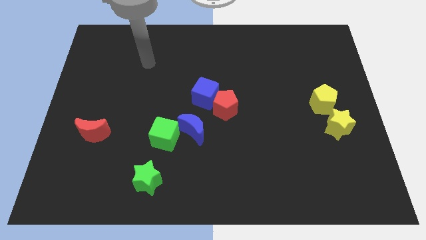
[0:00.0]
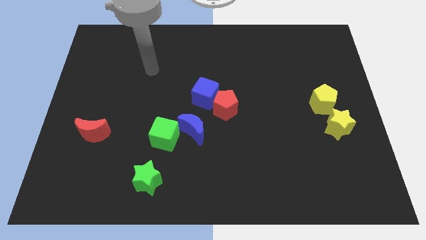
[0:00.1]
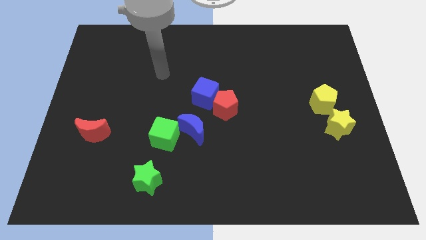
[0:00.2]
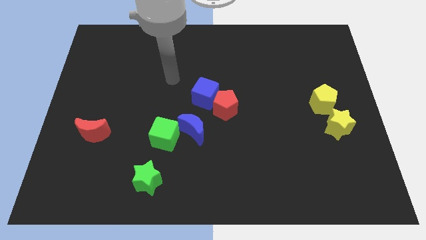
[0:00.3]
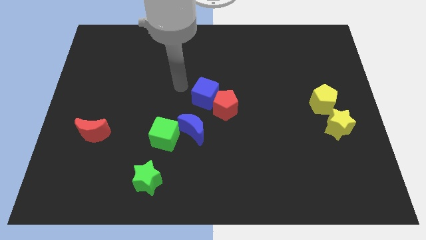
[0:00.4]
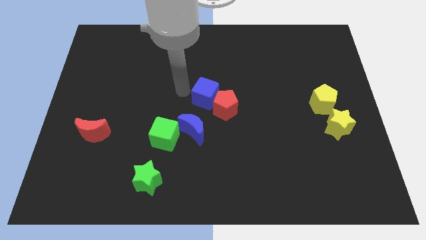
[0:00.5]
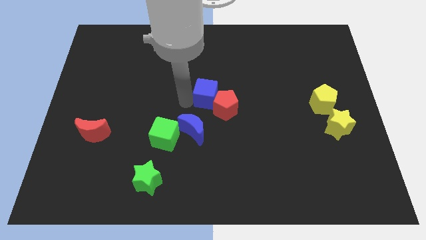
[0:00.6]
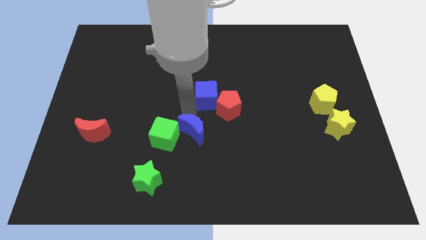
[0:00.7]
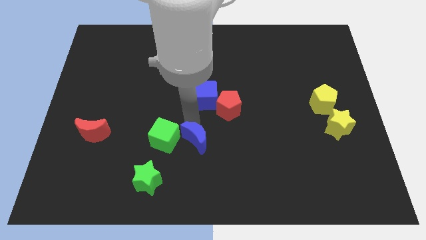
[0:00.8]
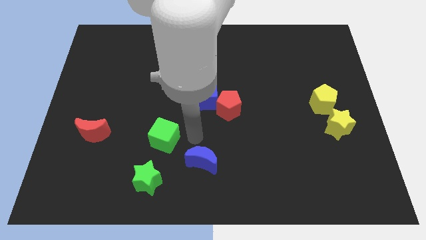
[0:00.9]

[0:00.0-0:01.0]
move the green cube away from the blue moon

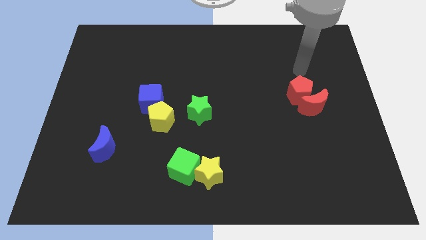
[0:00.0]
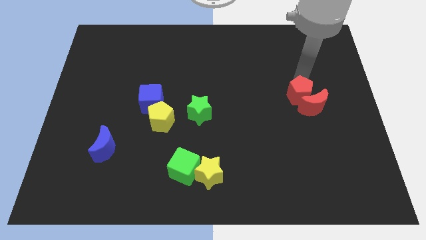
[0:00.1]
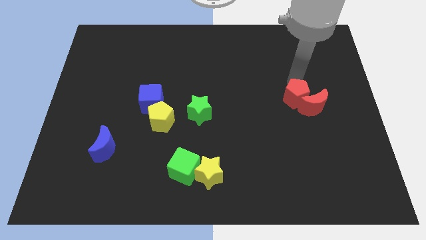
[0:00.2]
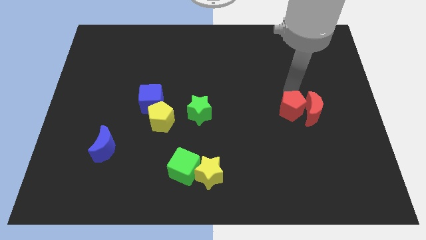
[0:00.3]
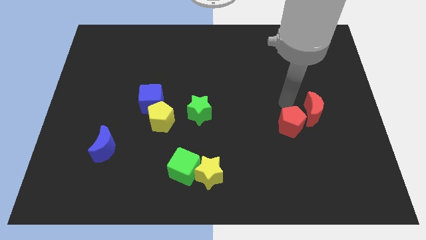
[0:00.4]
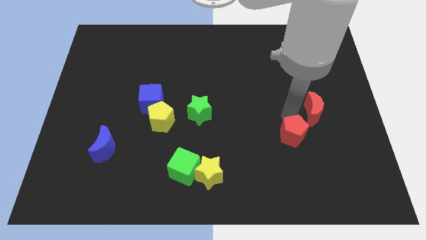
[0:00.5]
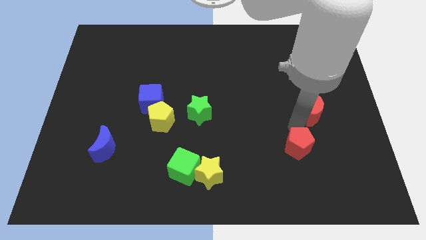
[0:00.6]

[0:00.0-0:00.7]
move the red moon away from the red pentagon

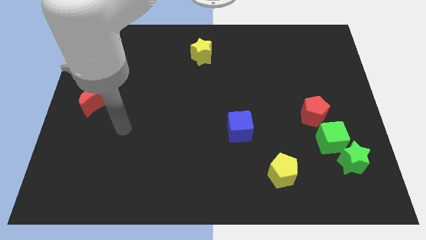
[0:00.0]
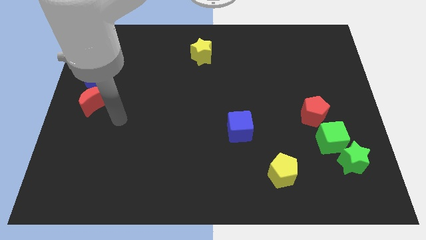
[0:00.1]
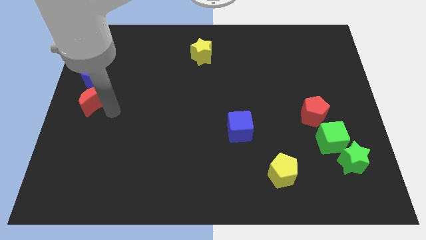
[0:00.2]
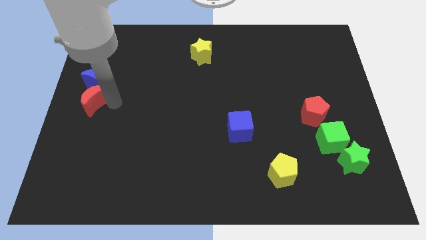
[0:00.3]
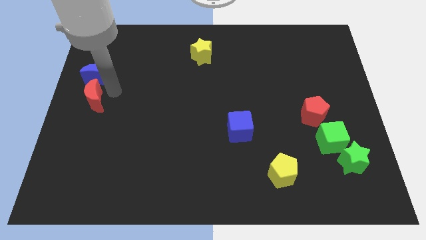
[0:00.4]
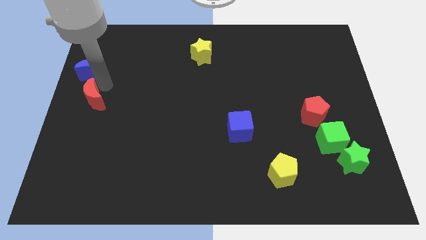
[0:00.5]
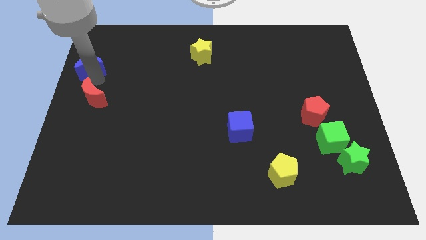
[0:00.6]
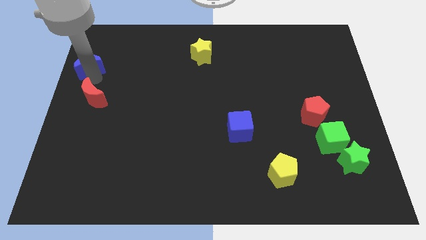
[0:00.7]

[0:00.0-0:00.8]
pull the red moon apart from the blue moon

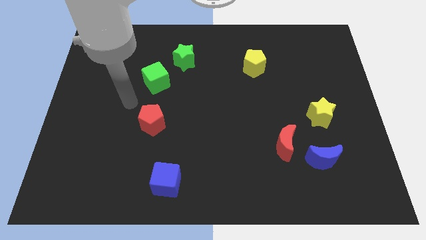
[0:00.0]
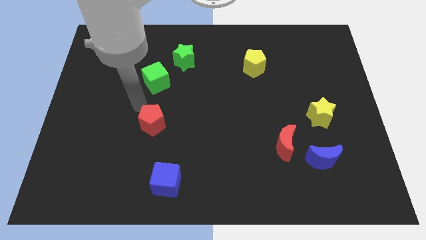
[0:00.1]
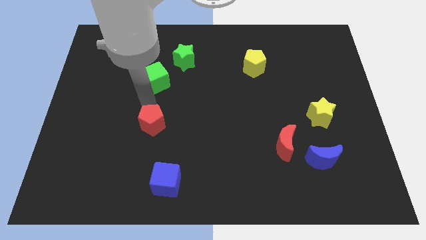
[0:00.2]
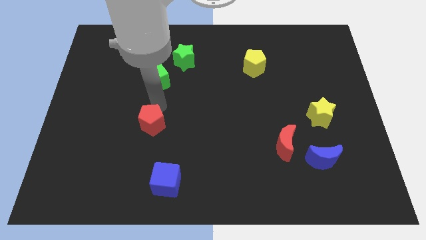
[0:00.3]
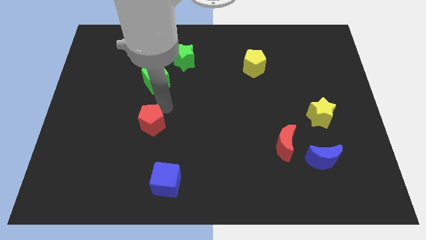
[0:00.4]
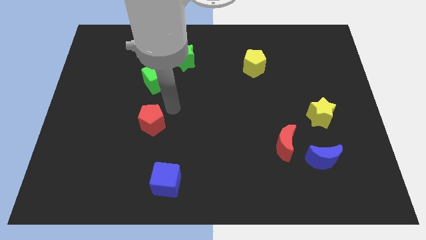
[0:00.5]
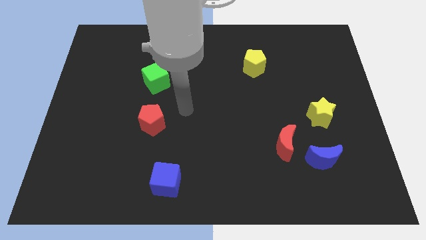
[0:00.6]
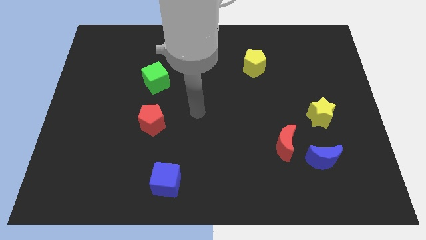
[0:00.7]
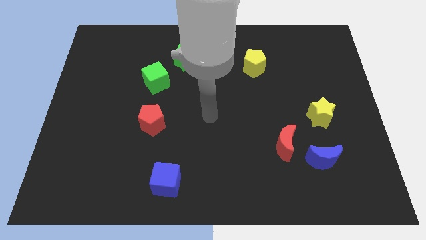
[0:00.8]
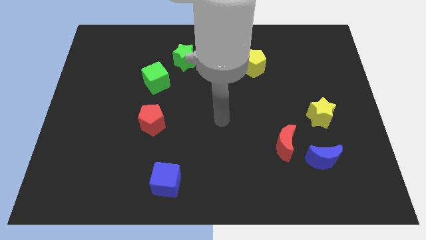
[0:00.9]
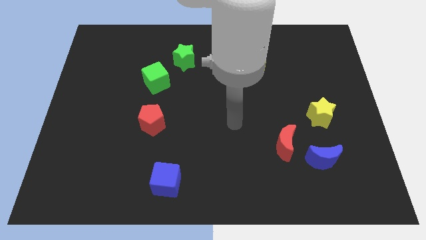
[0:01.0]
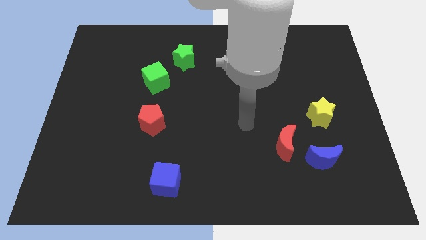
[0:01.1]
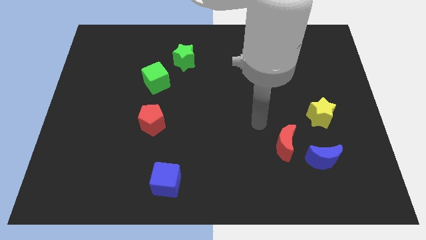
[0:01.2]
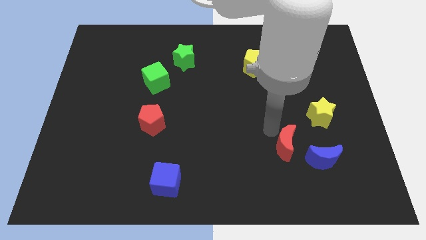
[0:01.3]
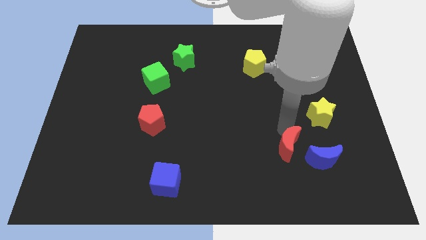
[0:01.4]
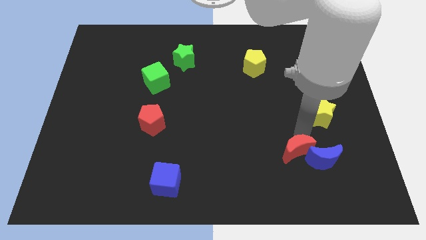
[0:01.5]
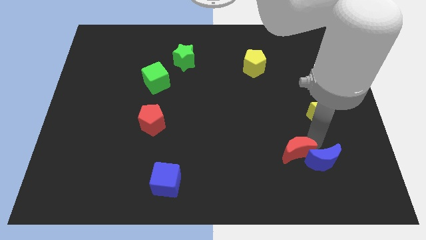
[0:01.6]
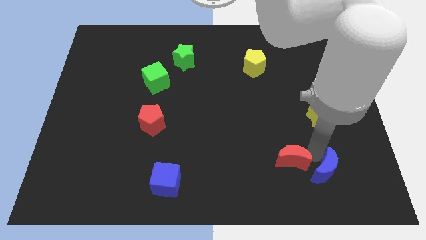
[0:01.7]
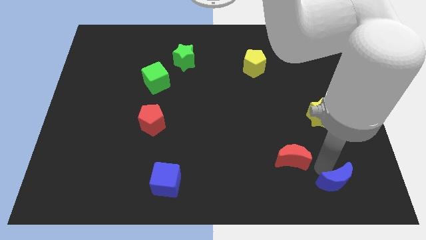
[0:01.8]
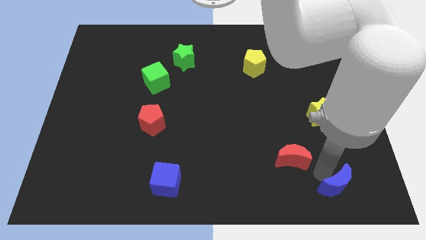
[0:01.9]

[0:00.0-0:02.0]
move the red moon away from the blue moon

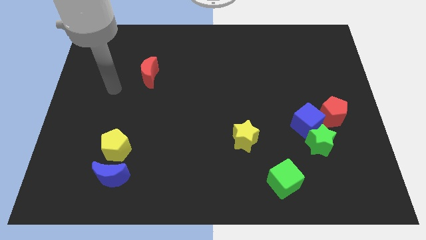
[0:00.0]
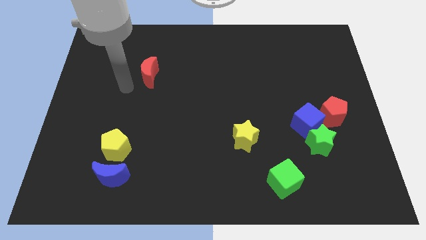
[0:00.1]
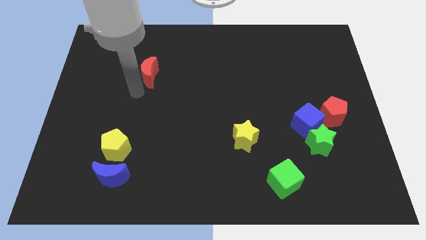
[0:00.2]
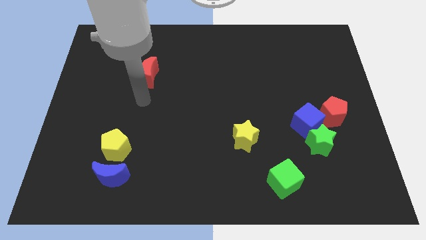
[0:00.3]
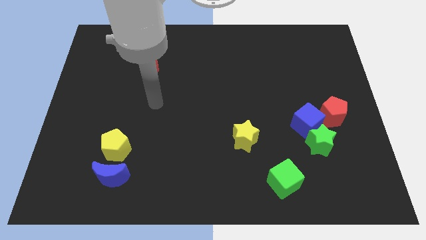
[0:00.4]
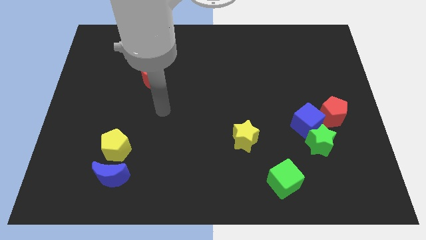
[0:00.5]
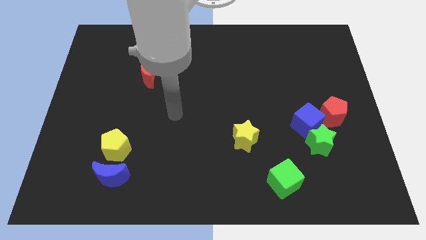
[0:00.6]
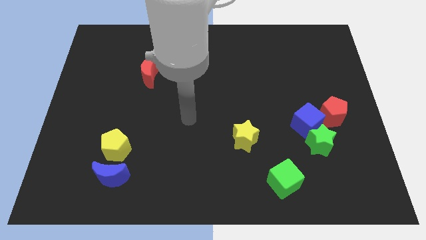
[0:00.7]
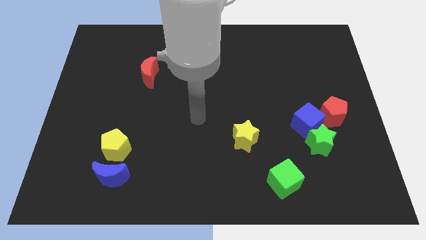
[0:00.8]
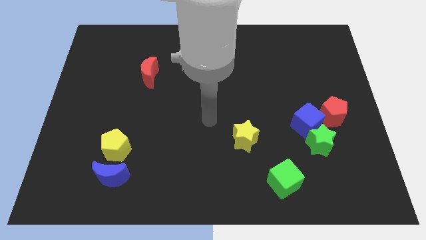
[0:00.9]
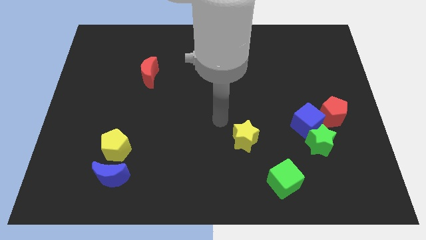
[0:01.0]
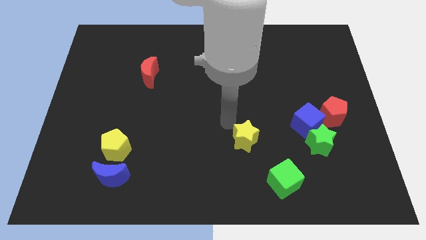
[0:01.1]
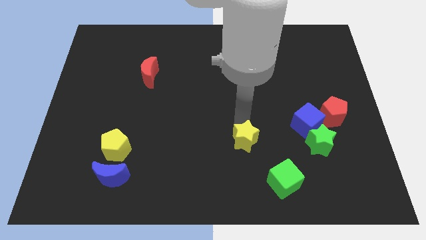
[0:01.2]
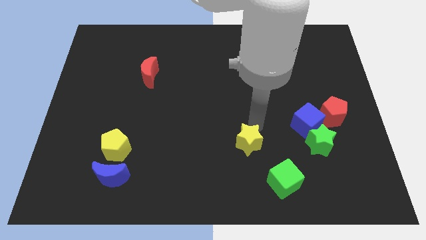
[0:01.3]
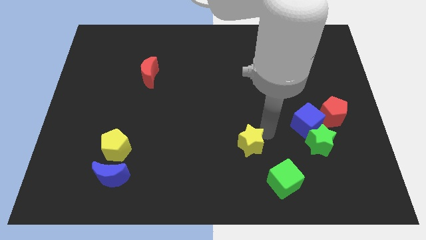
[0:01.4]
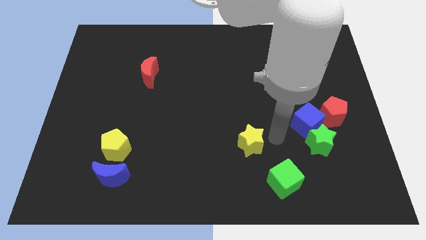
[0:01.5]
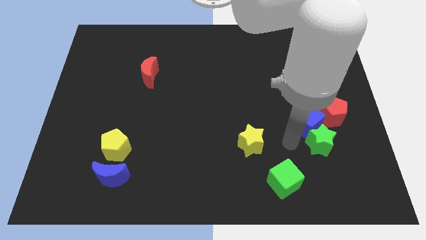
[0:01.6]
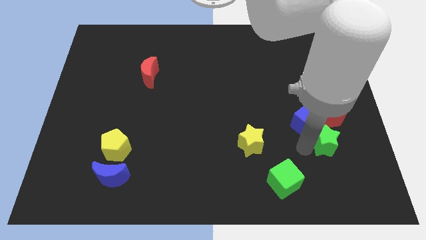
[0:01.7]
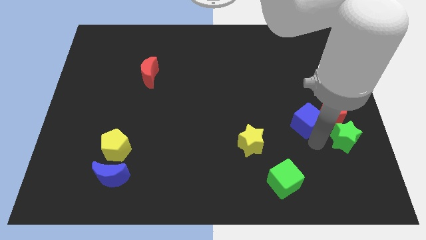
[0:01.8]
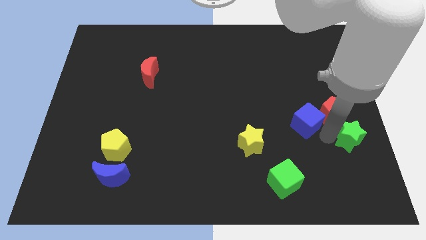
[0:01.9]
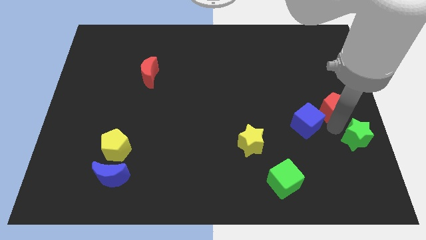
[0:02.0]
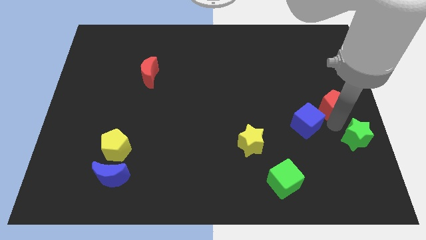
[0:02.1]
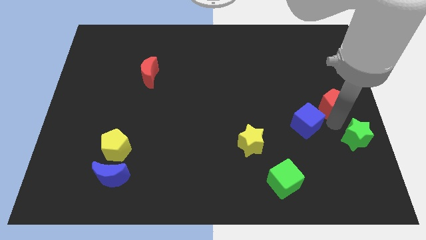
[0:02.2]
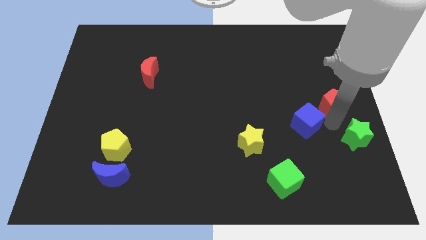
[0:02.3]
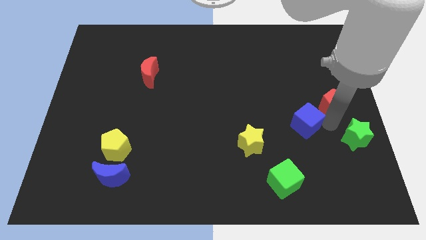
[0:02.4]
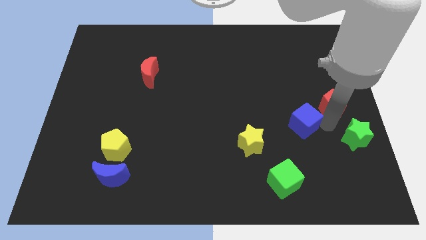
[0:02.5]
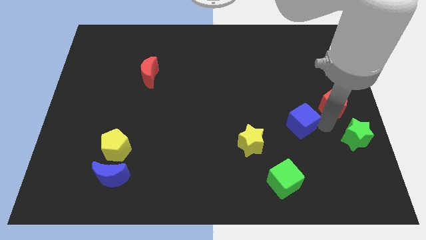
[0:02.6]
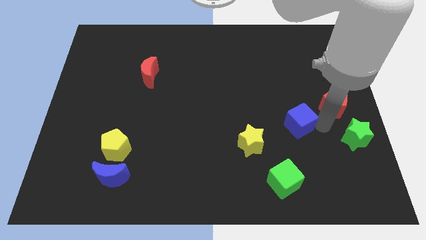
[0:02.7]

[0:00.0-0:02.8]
pull the blue cube apart from the green star and red pentagon

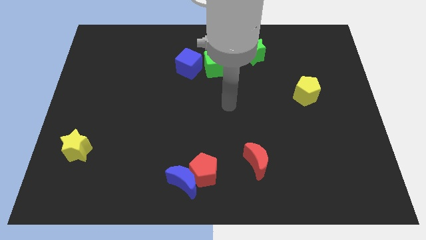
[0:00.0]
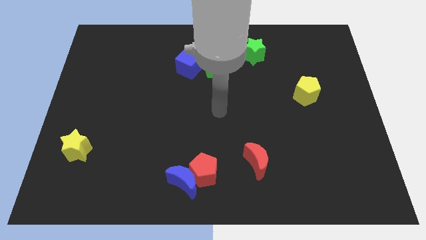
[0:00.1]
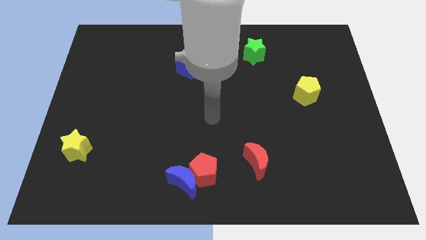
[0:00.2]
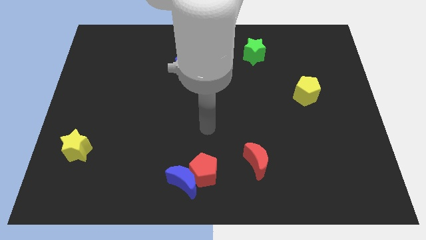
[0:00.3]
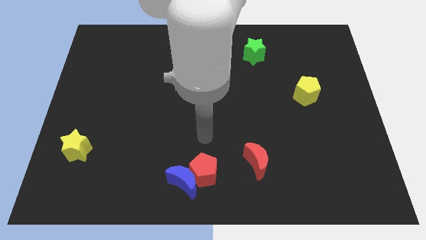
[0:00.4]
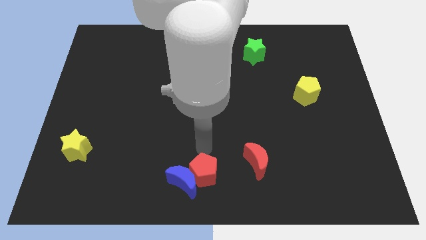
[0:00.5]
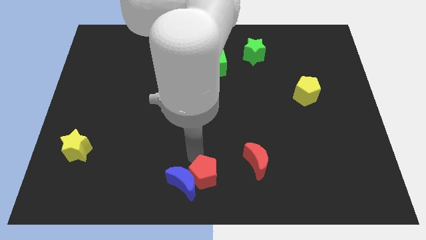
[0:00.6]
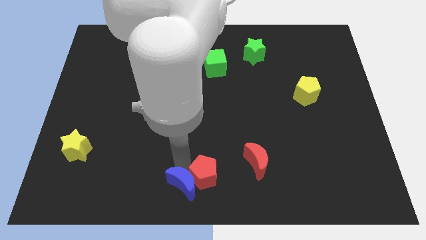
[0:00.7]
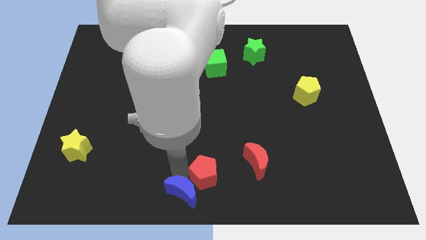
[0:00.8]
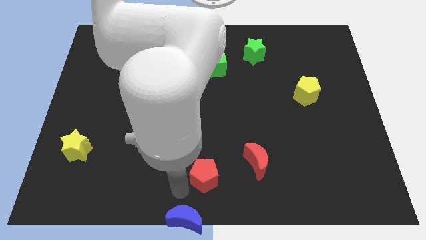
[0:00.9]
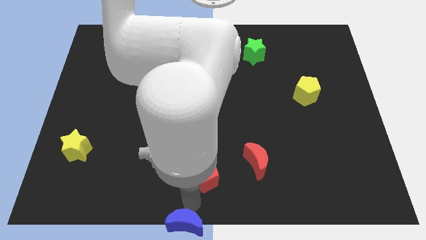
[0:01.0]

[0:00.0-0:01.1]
move the red pentagon away from the blue moon

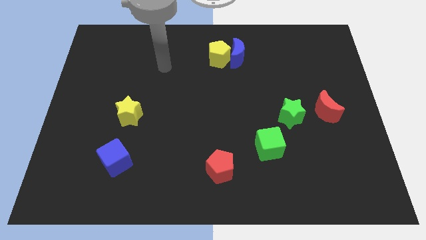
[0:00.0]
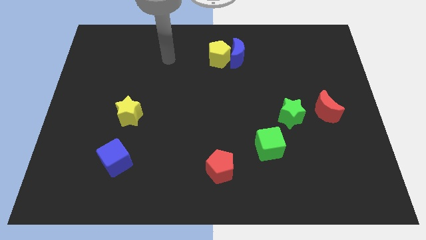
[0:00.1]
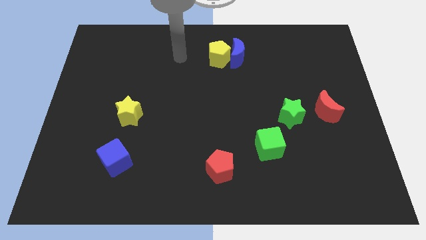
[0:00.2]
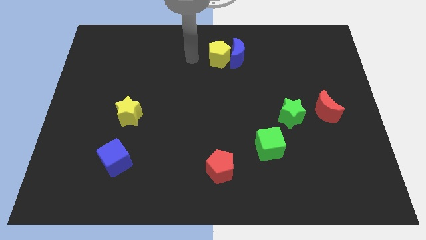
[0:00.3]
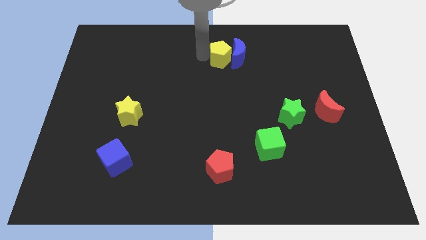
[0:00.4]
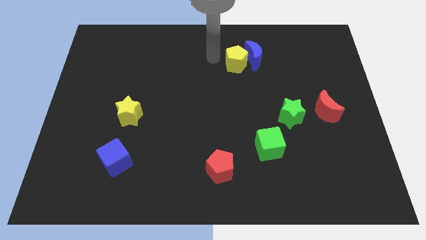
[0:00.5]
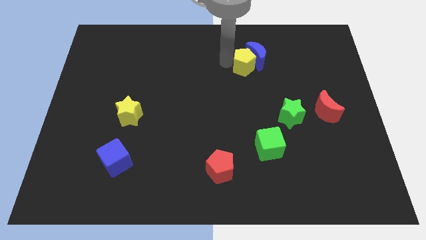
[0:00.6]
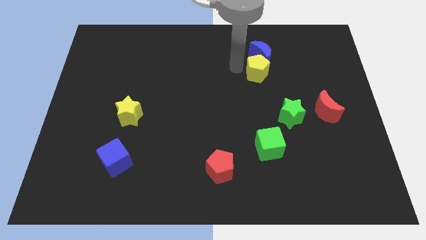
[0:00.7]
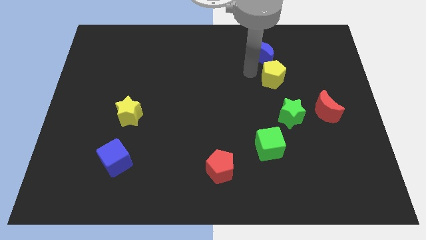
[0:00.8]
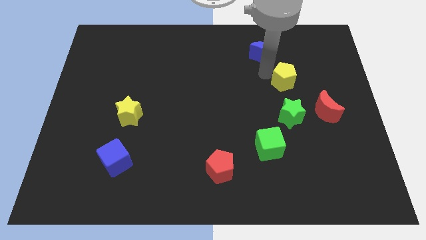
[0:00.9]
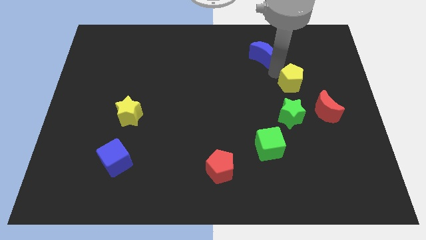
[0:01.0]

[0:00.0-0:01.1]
separate the blue moon from the yellow pentagon

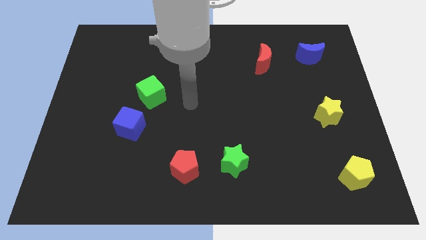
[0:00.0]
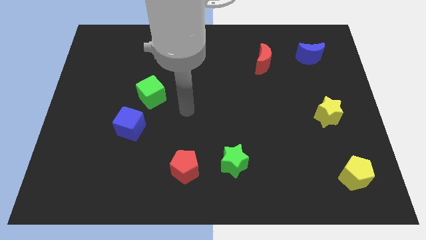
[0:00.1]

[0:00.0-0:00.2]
separate the red pentagon from the green star
